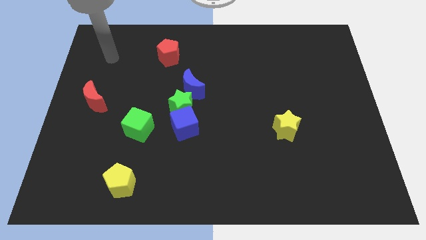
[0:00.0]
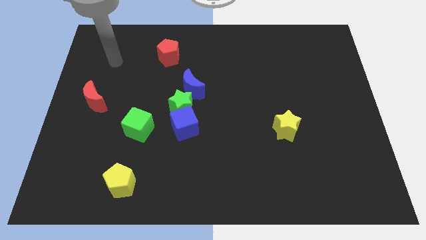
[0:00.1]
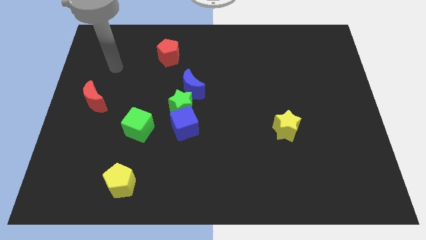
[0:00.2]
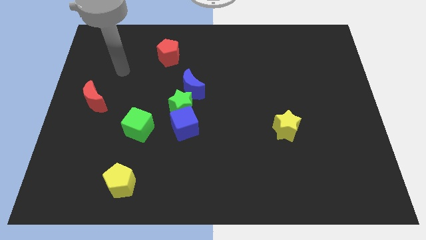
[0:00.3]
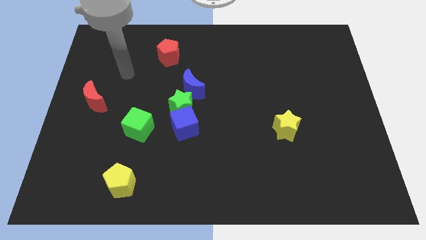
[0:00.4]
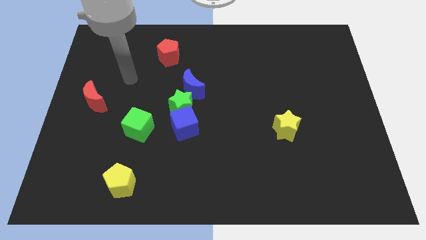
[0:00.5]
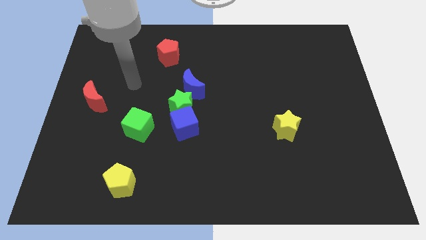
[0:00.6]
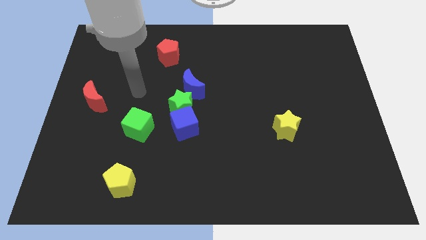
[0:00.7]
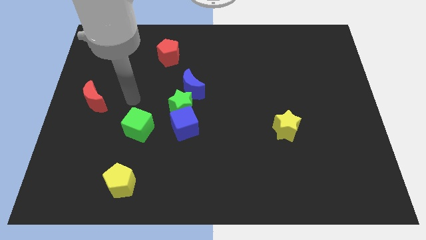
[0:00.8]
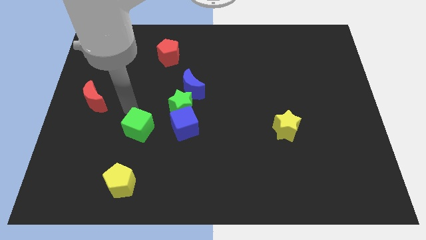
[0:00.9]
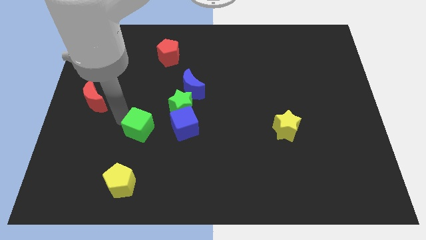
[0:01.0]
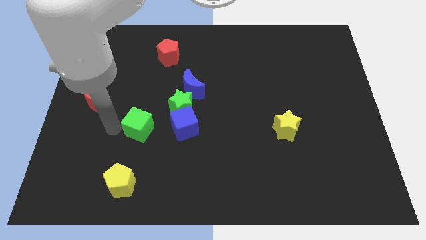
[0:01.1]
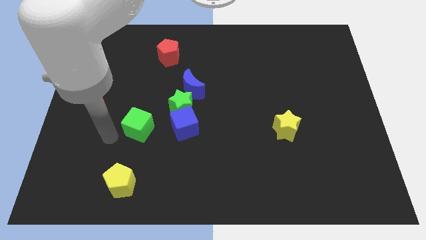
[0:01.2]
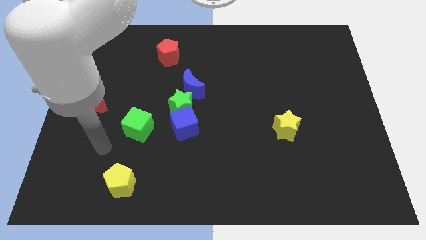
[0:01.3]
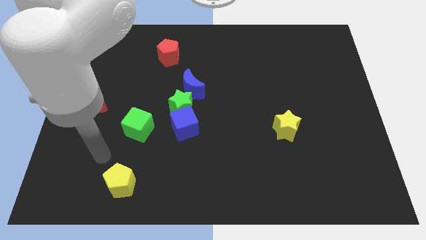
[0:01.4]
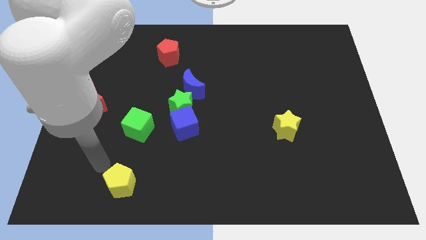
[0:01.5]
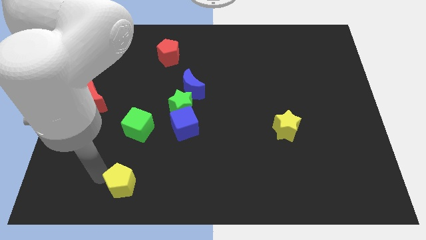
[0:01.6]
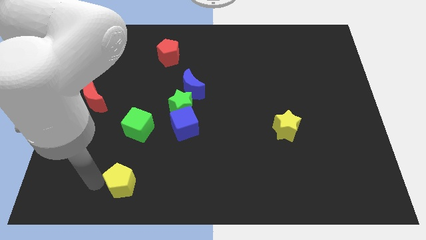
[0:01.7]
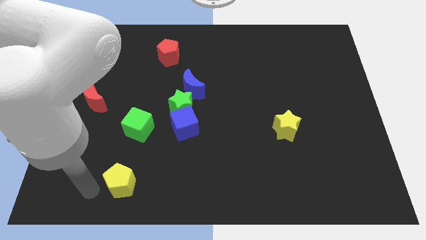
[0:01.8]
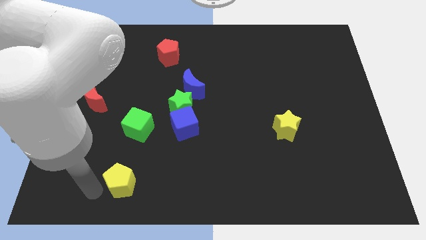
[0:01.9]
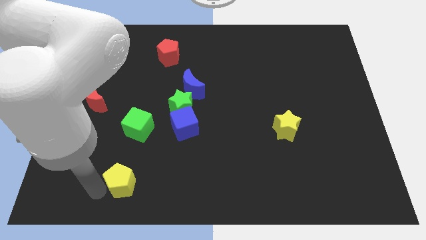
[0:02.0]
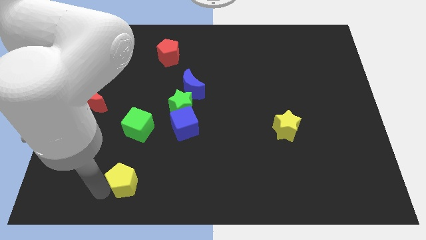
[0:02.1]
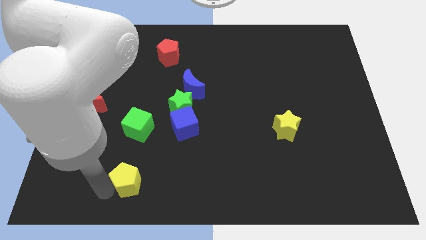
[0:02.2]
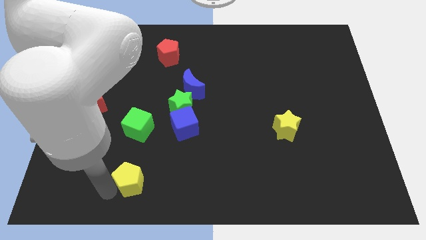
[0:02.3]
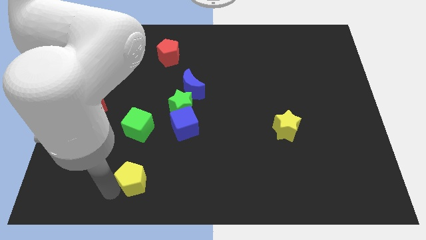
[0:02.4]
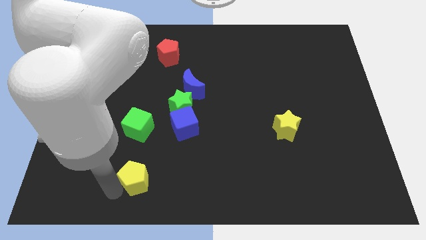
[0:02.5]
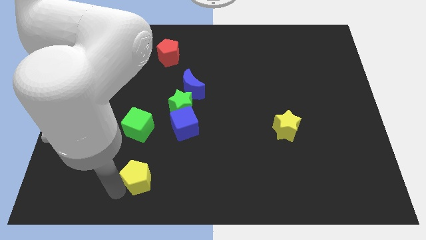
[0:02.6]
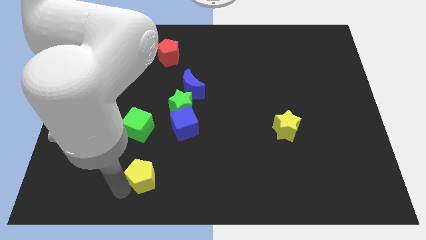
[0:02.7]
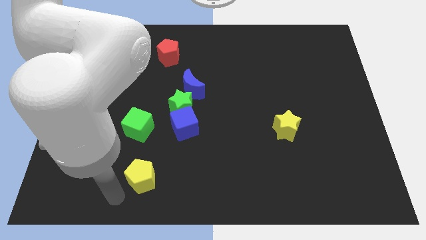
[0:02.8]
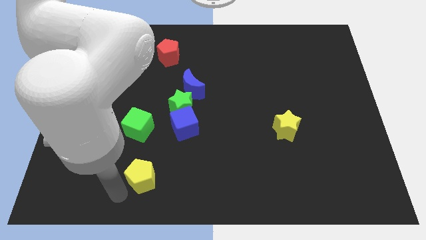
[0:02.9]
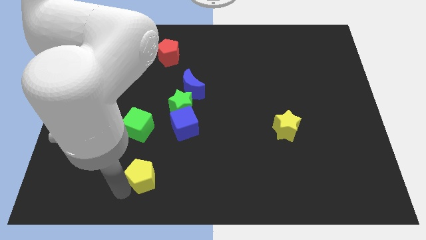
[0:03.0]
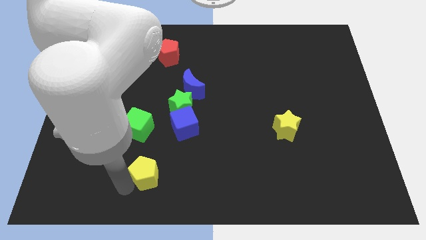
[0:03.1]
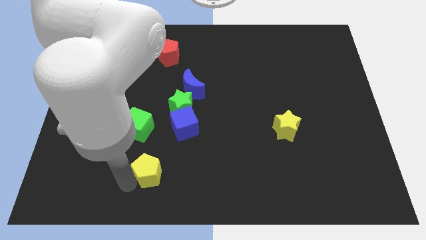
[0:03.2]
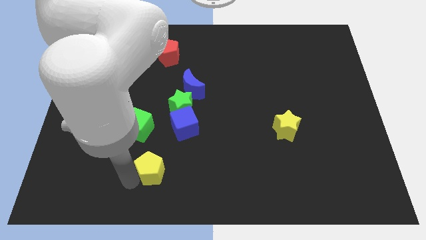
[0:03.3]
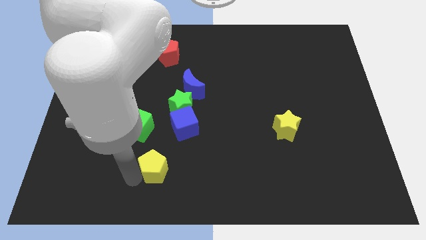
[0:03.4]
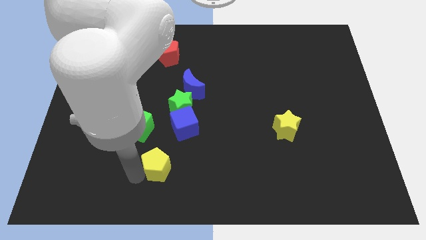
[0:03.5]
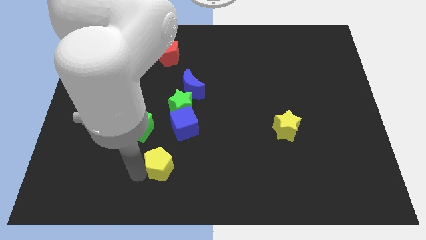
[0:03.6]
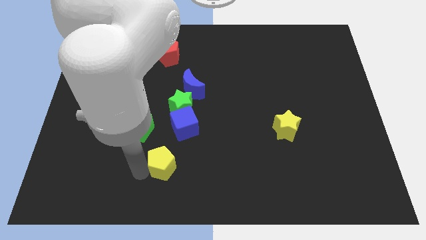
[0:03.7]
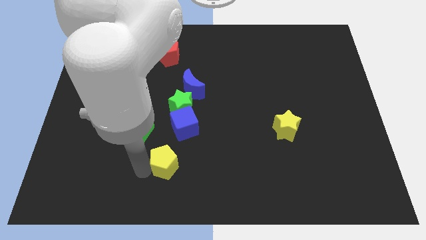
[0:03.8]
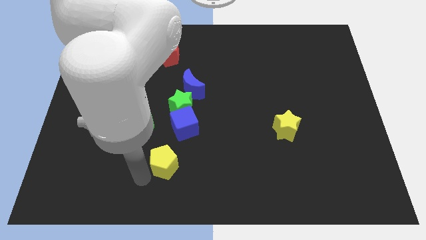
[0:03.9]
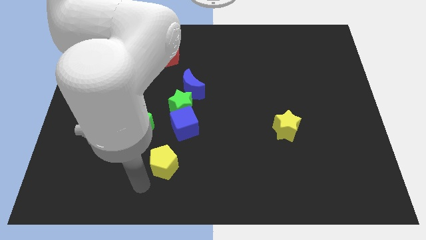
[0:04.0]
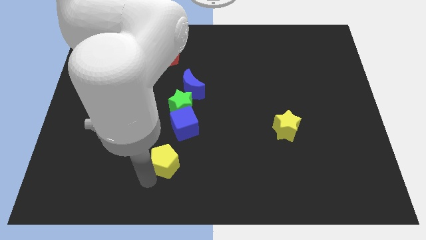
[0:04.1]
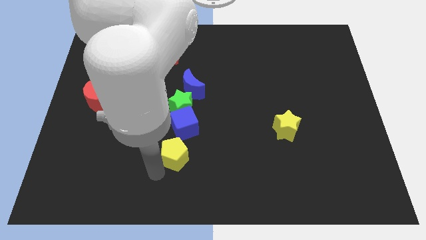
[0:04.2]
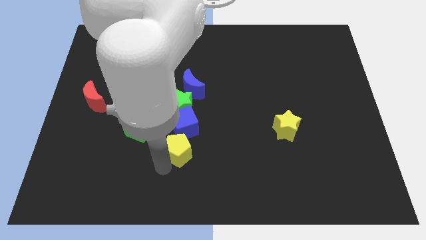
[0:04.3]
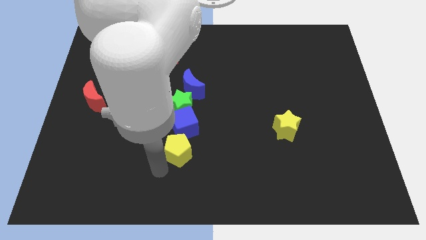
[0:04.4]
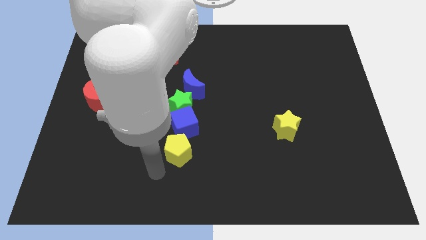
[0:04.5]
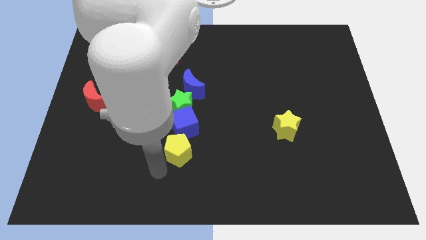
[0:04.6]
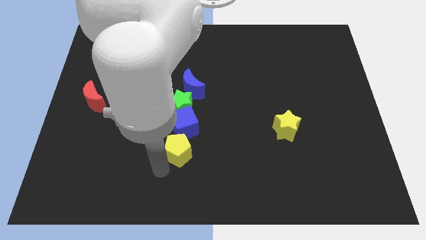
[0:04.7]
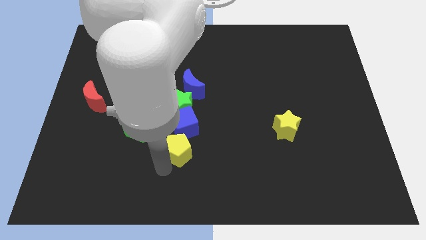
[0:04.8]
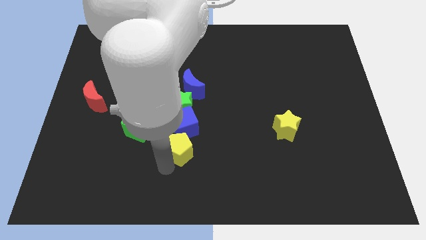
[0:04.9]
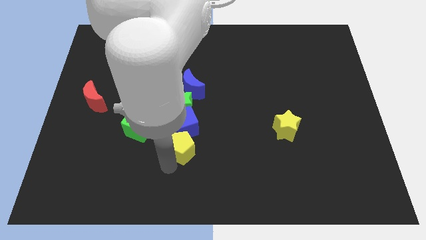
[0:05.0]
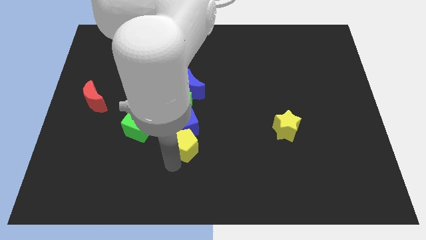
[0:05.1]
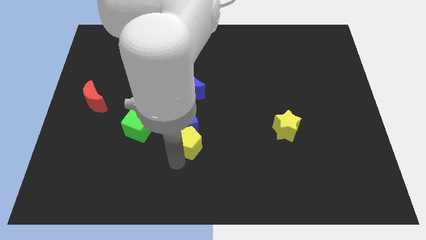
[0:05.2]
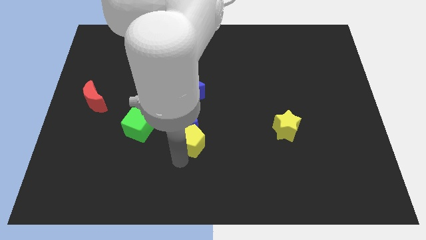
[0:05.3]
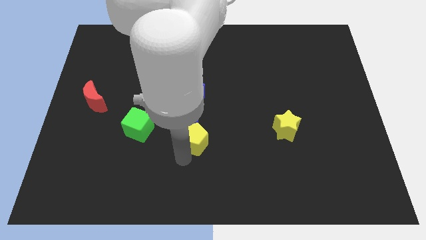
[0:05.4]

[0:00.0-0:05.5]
put the yellow pentagon to the center

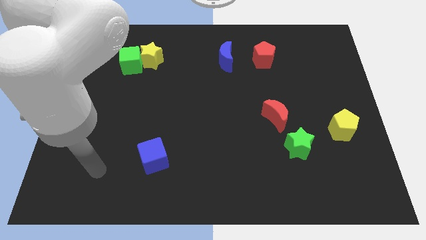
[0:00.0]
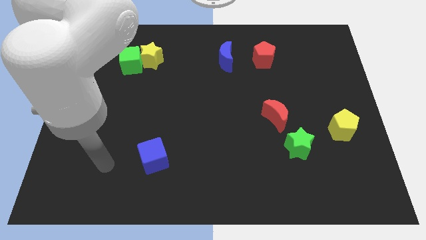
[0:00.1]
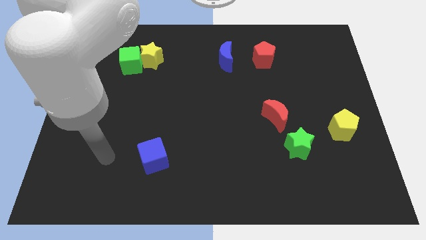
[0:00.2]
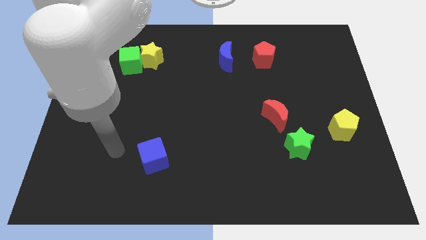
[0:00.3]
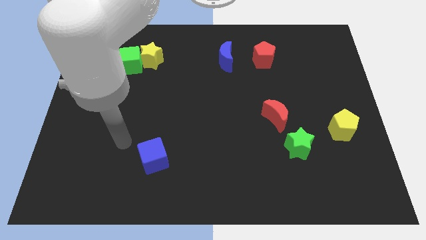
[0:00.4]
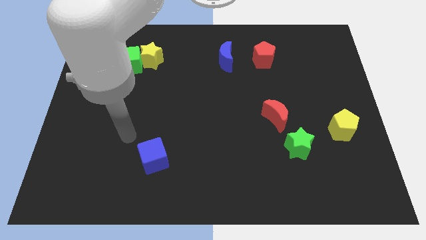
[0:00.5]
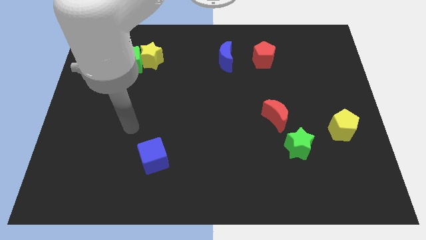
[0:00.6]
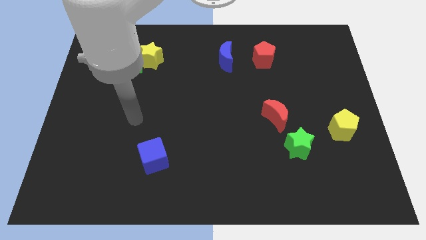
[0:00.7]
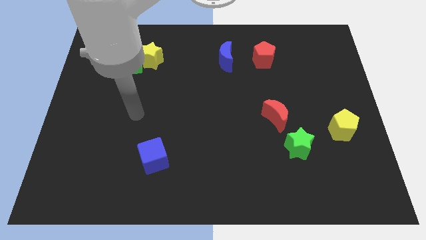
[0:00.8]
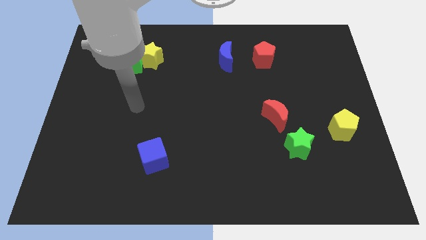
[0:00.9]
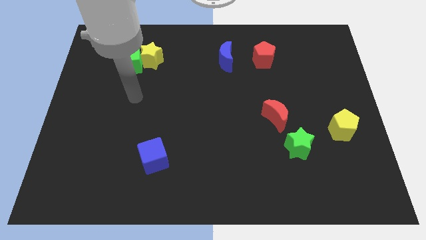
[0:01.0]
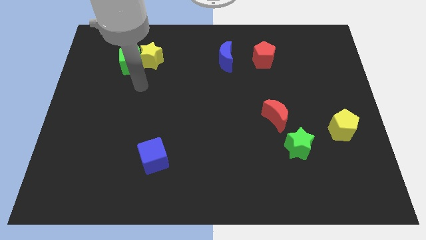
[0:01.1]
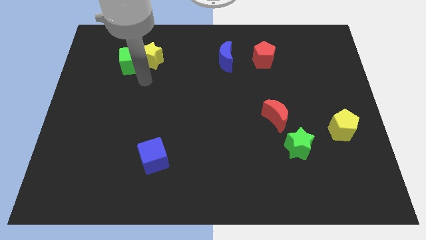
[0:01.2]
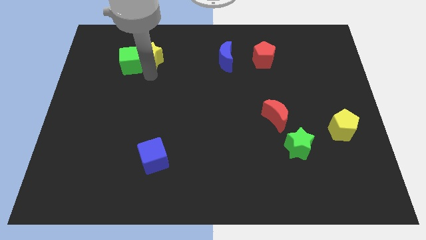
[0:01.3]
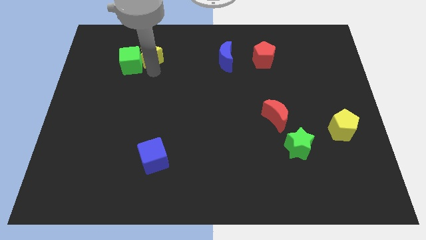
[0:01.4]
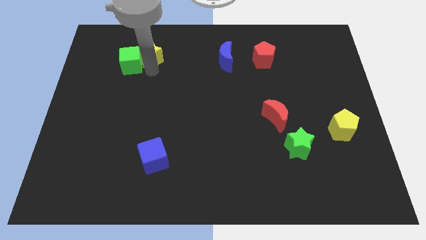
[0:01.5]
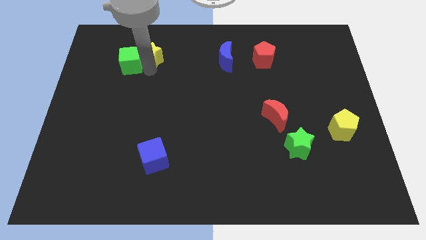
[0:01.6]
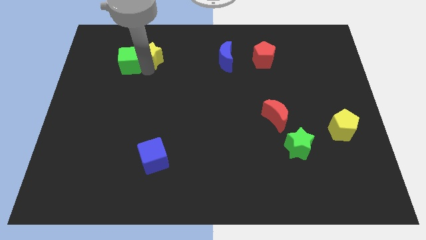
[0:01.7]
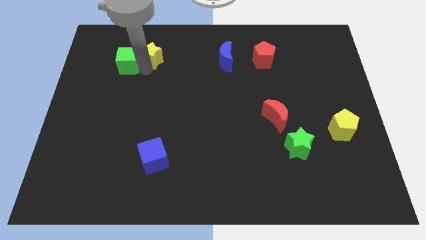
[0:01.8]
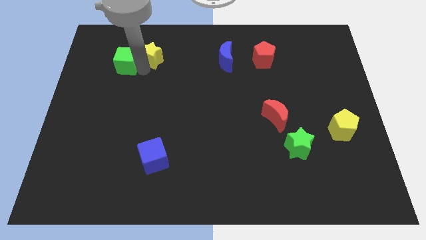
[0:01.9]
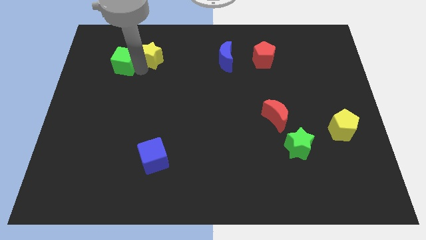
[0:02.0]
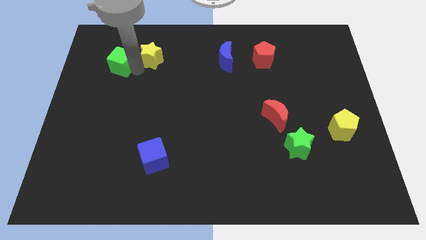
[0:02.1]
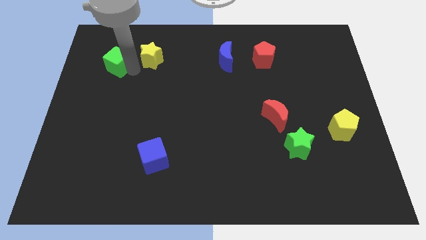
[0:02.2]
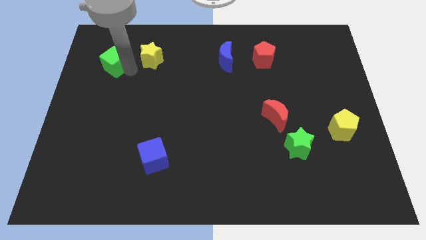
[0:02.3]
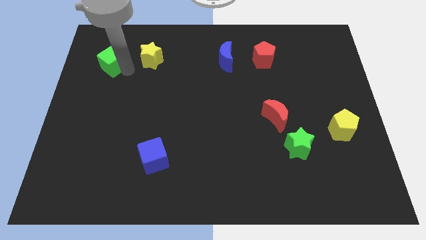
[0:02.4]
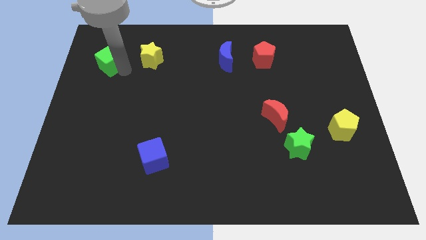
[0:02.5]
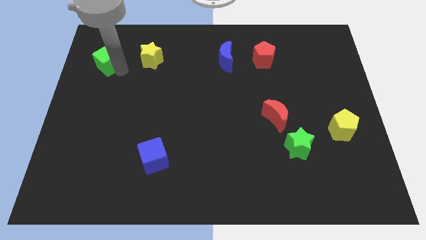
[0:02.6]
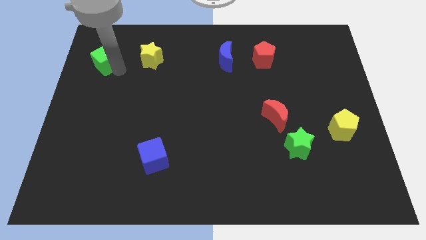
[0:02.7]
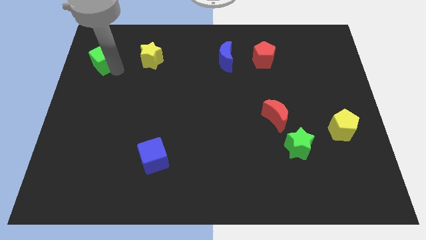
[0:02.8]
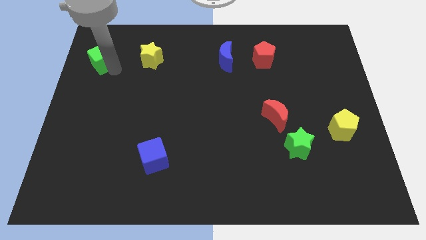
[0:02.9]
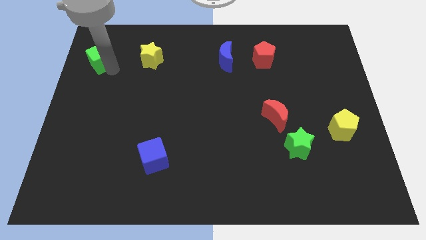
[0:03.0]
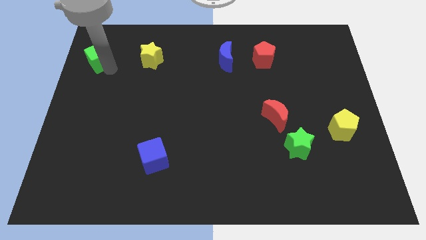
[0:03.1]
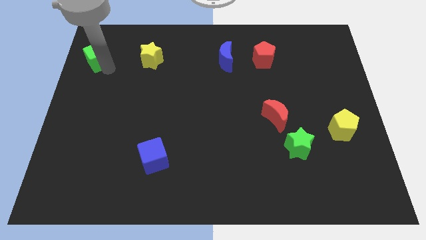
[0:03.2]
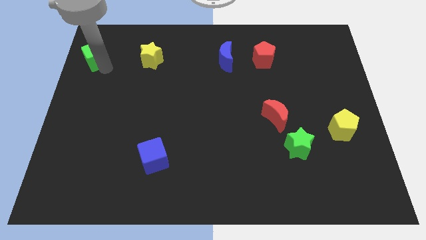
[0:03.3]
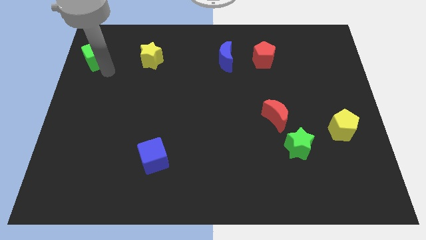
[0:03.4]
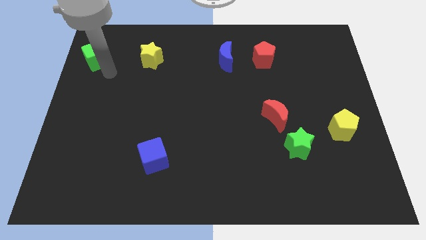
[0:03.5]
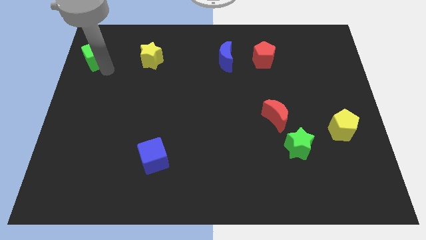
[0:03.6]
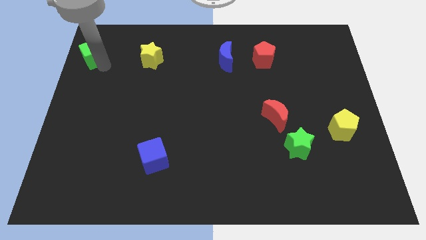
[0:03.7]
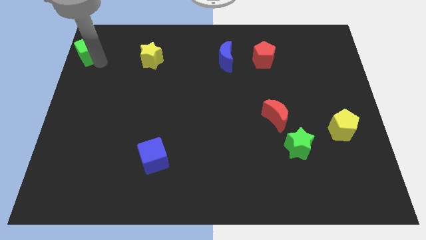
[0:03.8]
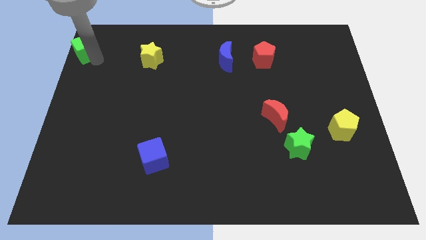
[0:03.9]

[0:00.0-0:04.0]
push the green cube to the upper left corner
